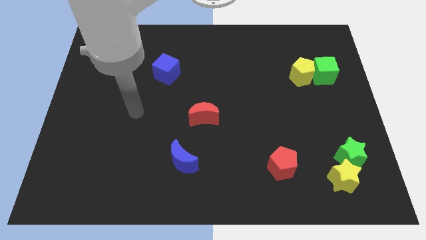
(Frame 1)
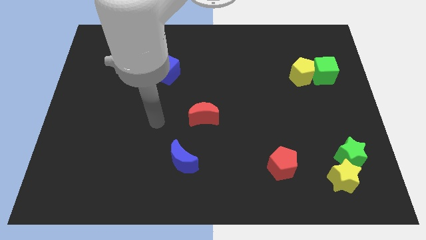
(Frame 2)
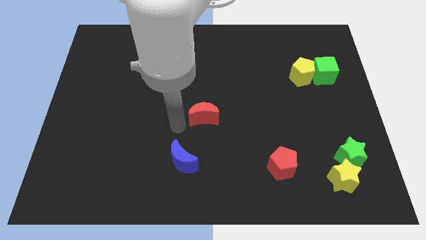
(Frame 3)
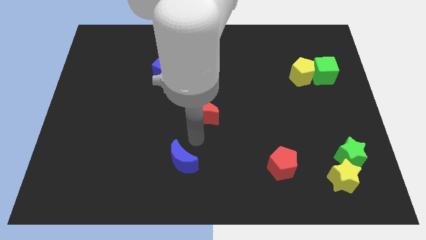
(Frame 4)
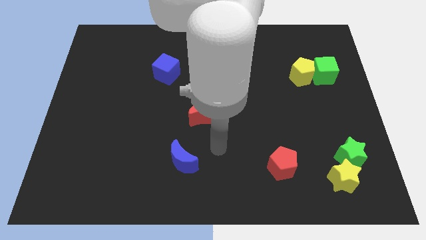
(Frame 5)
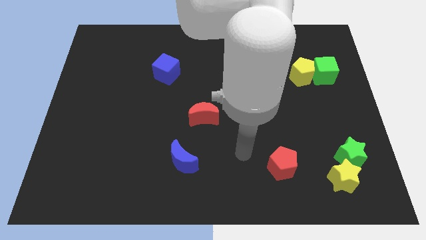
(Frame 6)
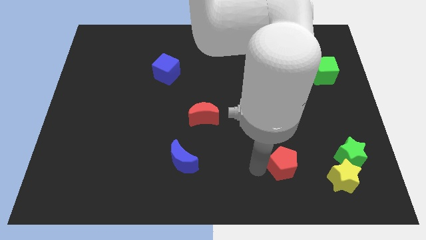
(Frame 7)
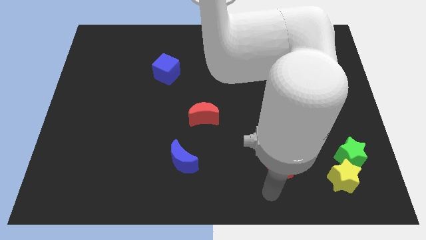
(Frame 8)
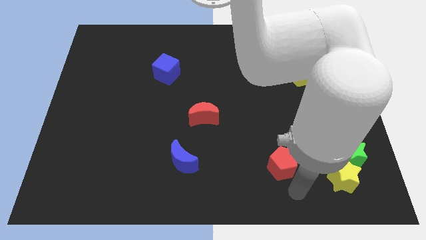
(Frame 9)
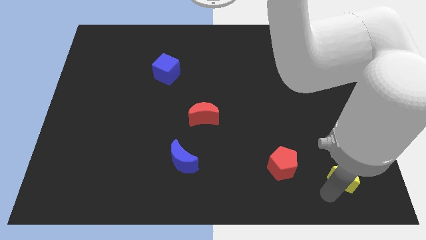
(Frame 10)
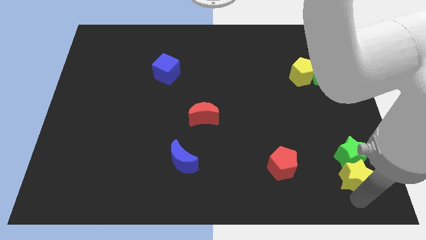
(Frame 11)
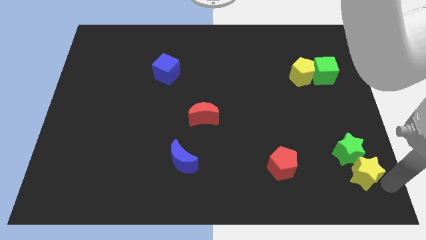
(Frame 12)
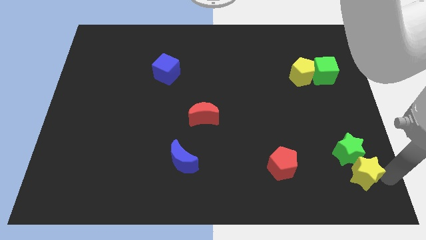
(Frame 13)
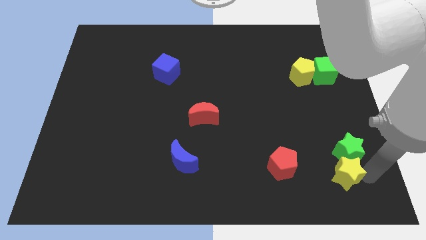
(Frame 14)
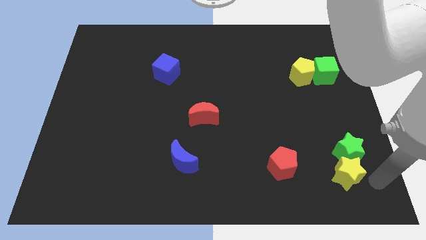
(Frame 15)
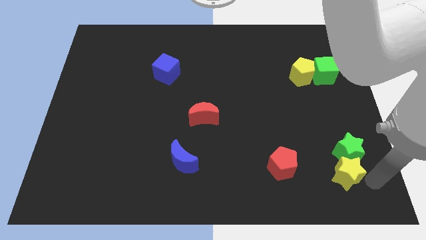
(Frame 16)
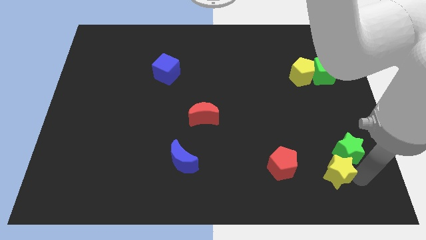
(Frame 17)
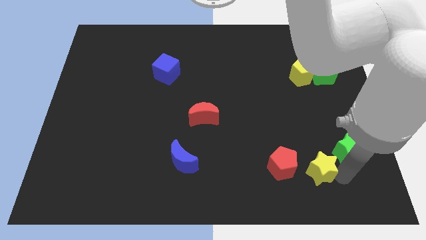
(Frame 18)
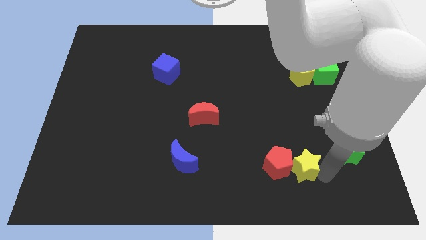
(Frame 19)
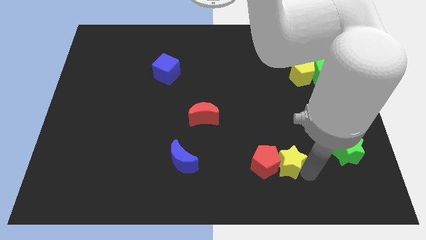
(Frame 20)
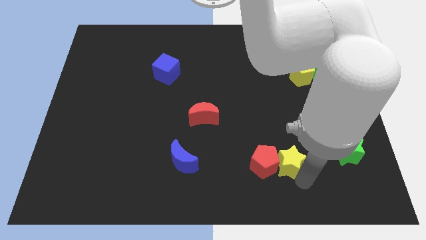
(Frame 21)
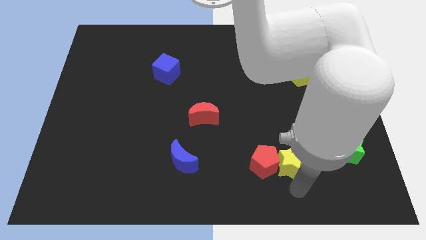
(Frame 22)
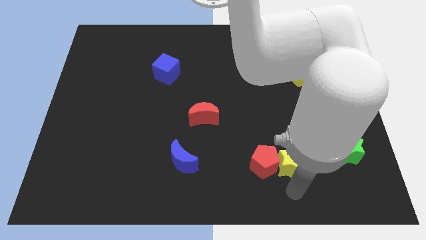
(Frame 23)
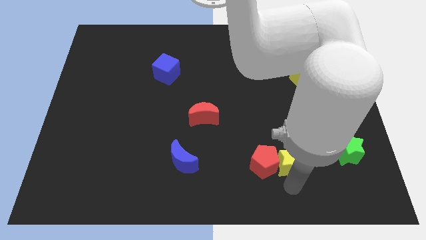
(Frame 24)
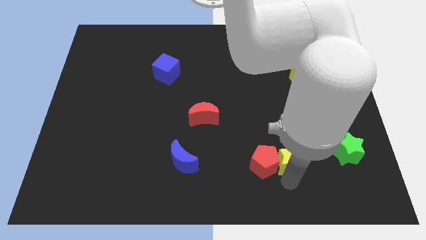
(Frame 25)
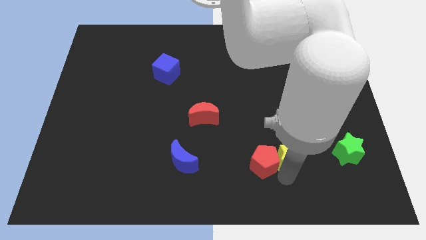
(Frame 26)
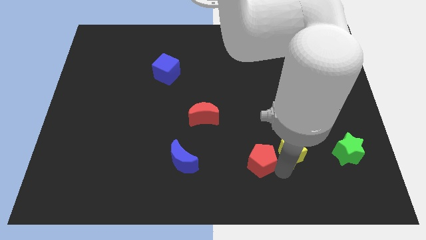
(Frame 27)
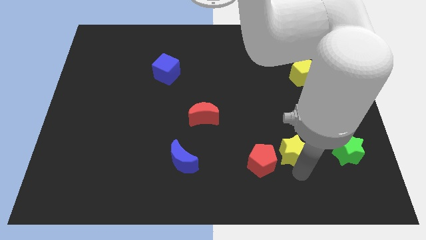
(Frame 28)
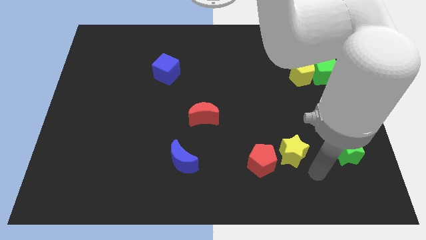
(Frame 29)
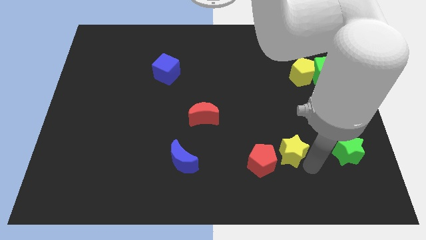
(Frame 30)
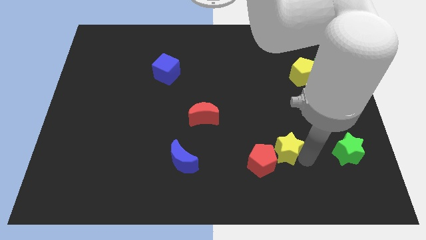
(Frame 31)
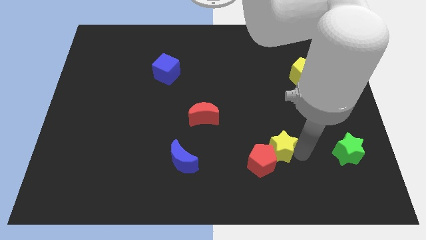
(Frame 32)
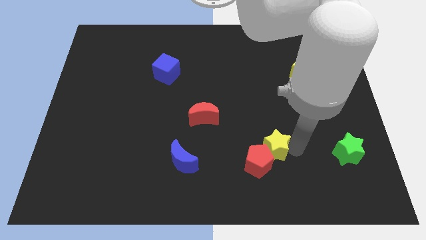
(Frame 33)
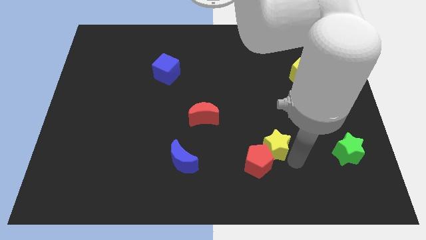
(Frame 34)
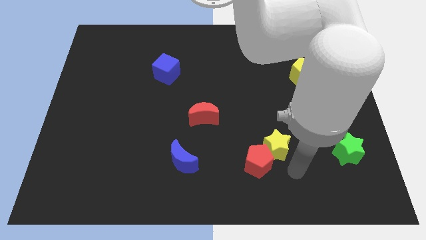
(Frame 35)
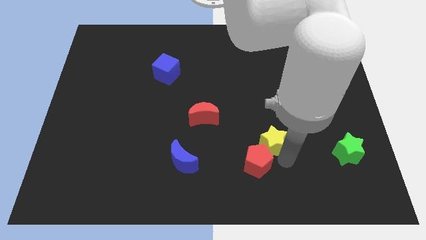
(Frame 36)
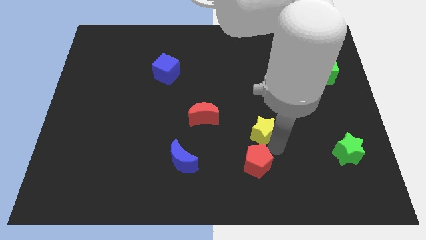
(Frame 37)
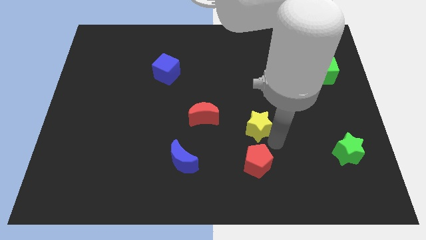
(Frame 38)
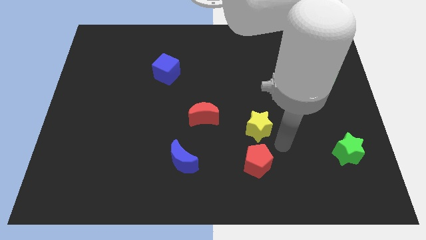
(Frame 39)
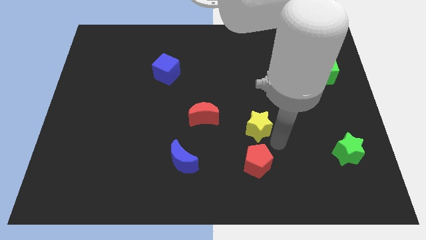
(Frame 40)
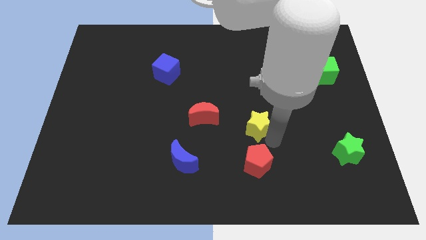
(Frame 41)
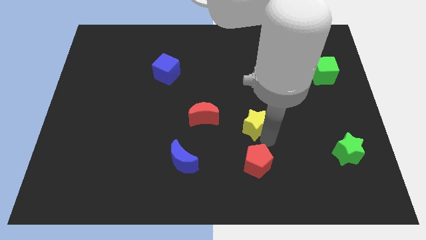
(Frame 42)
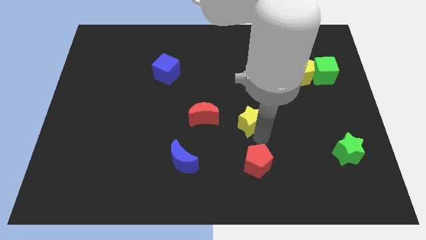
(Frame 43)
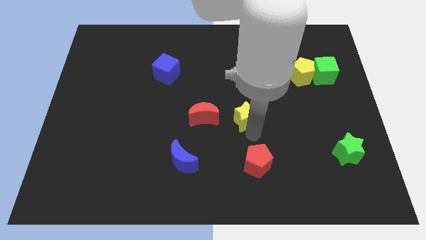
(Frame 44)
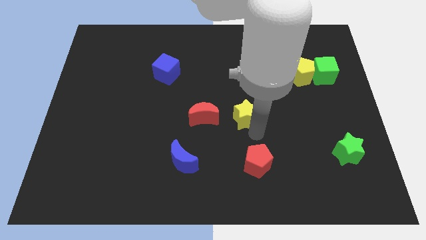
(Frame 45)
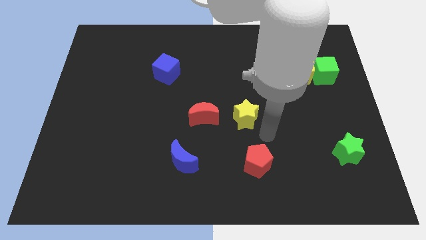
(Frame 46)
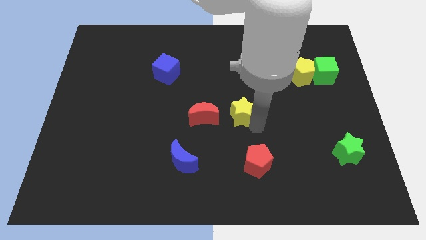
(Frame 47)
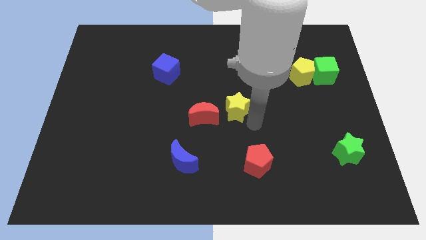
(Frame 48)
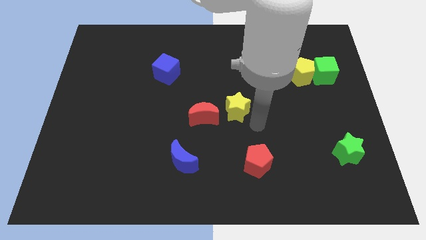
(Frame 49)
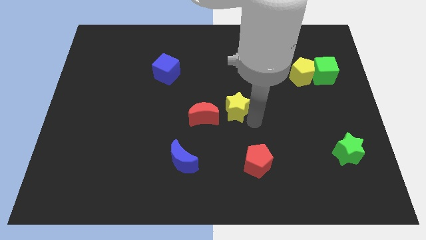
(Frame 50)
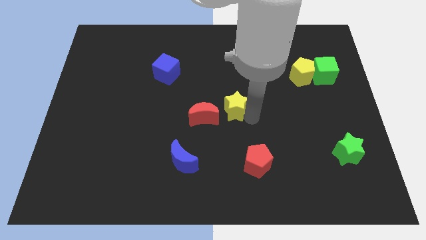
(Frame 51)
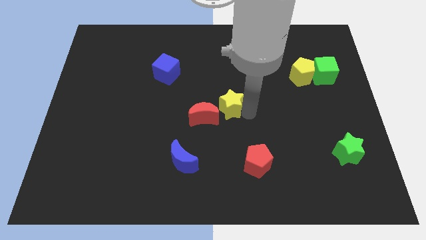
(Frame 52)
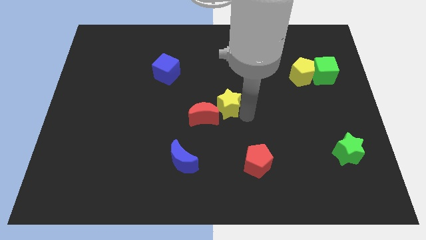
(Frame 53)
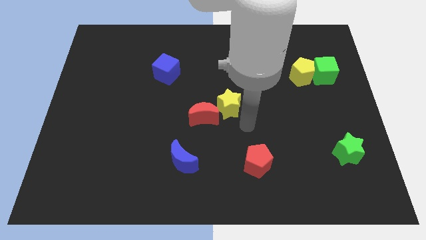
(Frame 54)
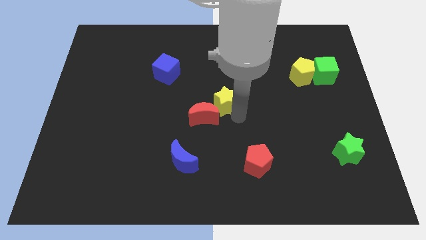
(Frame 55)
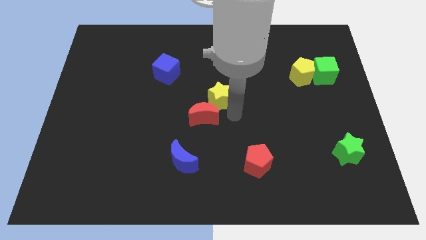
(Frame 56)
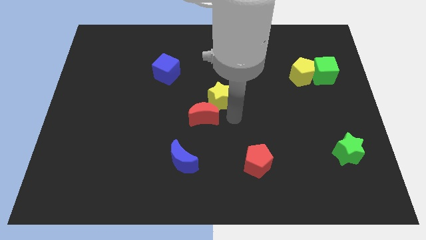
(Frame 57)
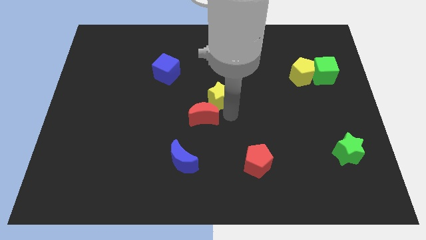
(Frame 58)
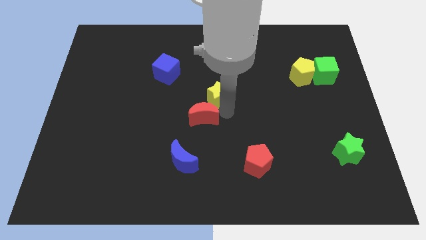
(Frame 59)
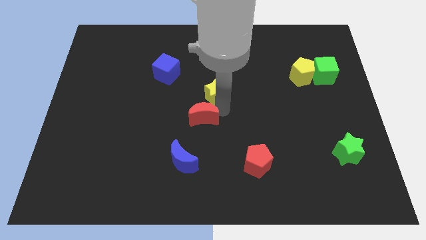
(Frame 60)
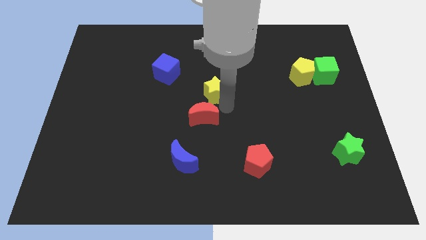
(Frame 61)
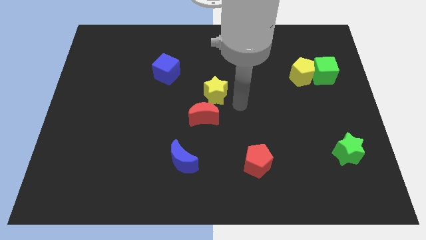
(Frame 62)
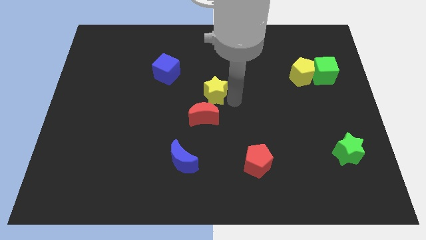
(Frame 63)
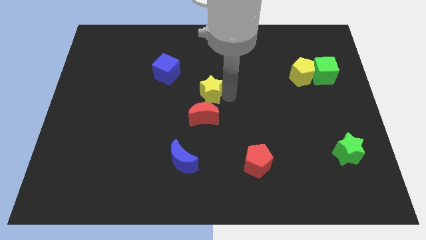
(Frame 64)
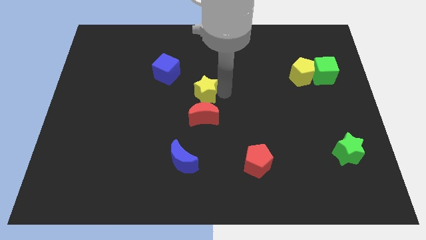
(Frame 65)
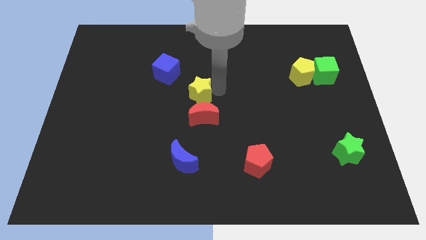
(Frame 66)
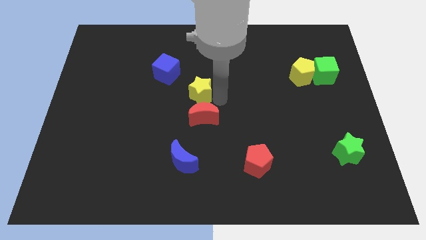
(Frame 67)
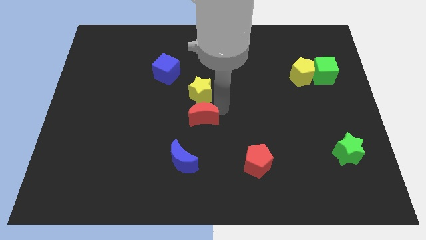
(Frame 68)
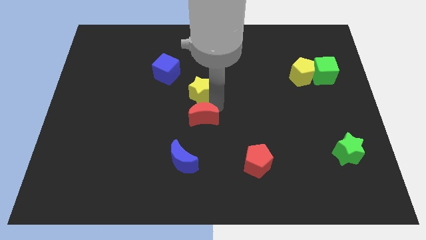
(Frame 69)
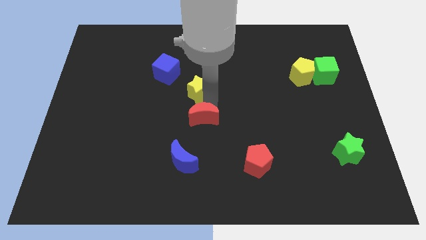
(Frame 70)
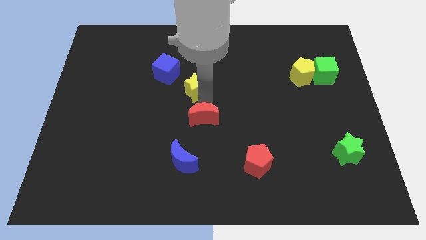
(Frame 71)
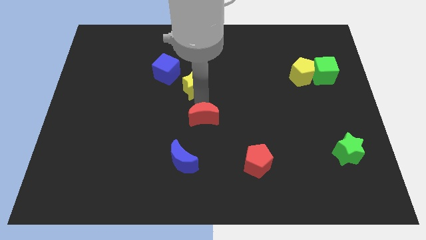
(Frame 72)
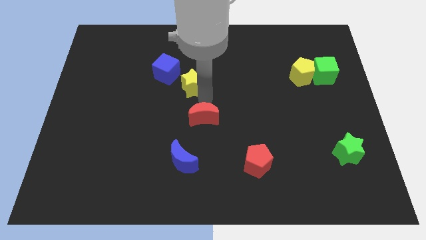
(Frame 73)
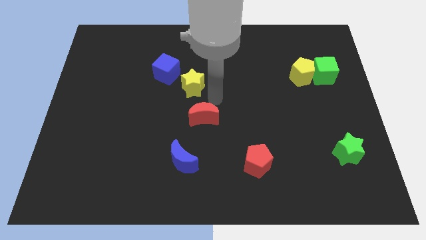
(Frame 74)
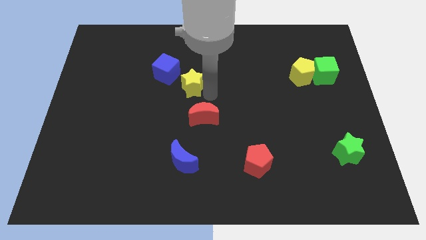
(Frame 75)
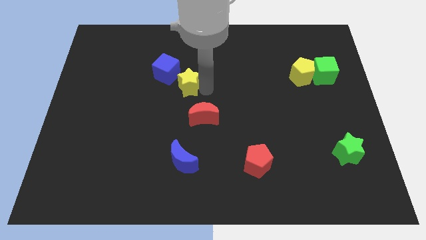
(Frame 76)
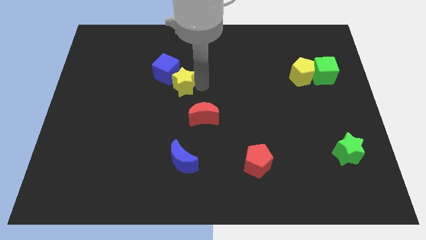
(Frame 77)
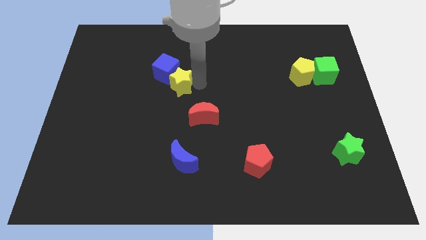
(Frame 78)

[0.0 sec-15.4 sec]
slide the yellow star next to the blue cube

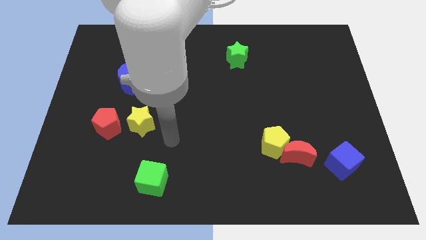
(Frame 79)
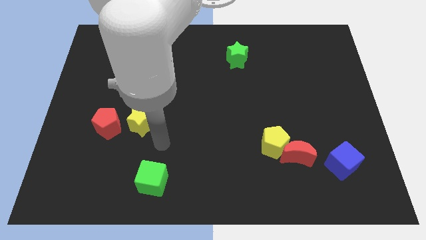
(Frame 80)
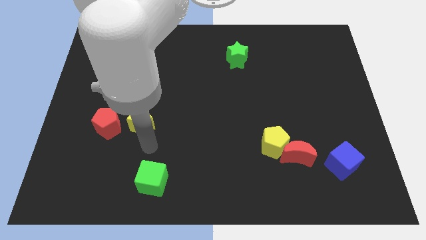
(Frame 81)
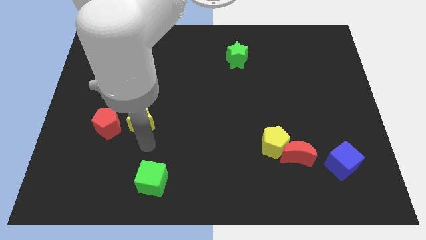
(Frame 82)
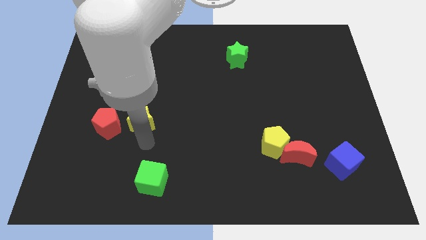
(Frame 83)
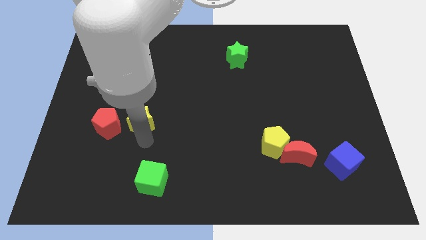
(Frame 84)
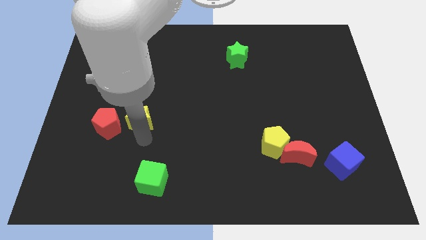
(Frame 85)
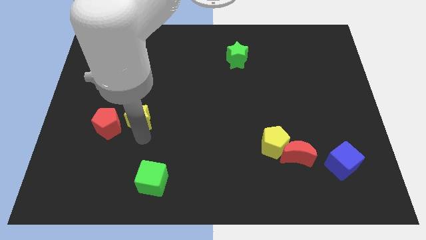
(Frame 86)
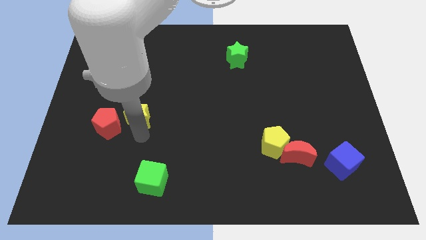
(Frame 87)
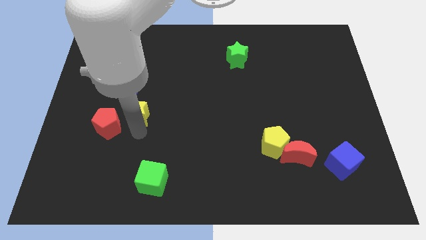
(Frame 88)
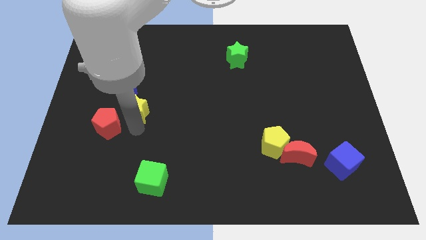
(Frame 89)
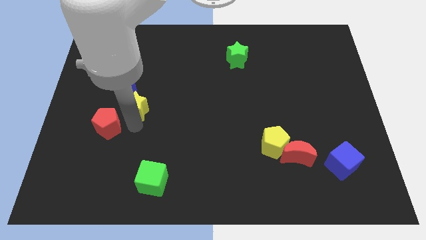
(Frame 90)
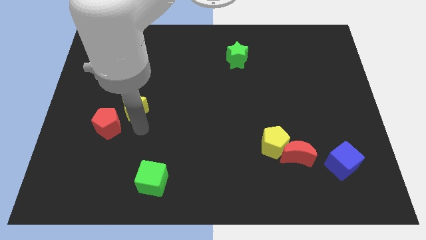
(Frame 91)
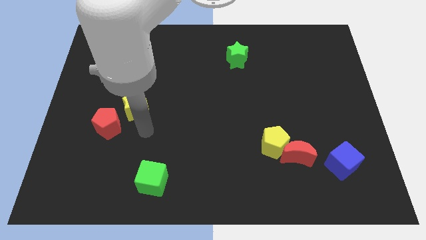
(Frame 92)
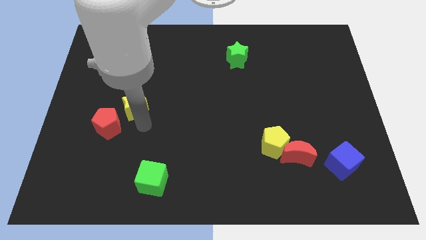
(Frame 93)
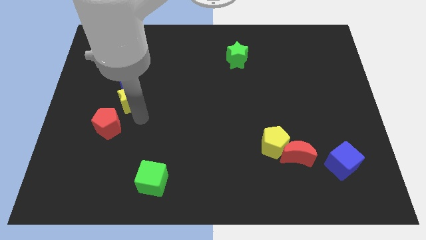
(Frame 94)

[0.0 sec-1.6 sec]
put the yellow star towards the blue moon
